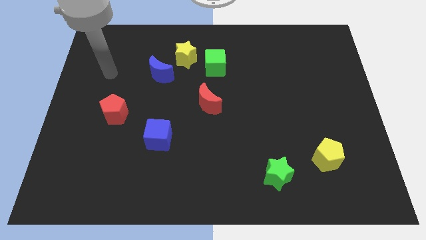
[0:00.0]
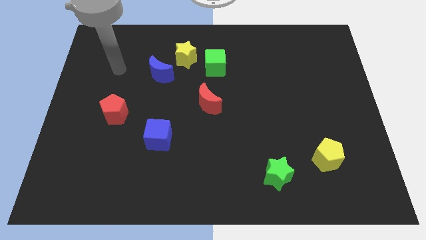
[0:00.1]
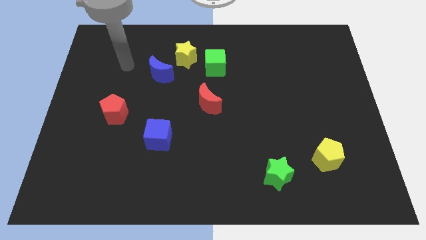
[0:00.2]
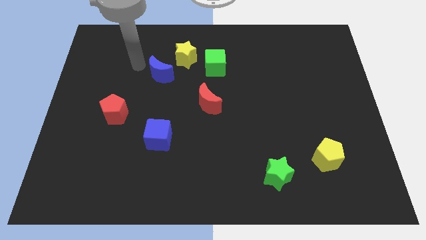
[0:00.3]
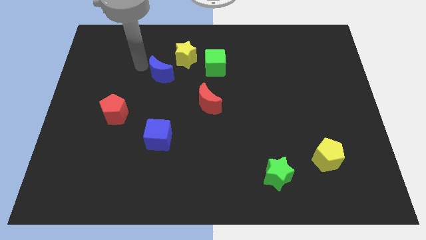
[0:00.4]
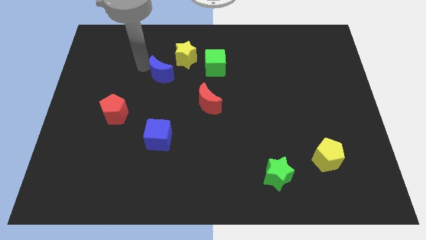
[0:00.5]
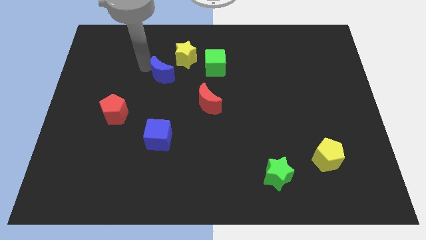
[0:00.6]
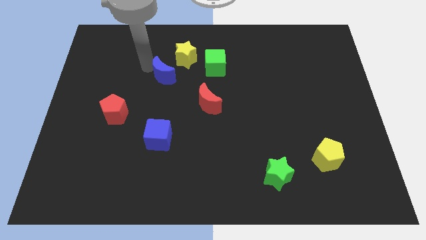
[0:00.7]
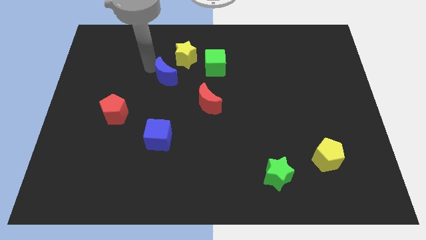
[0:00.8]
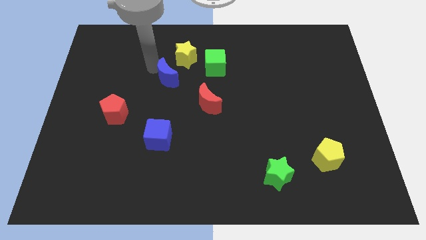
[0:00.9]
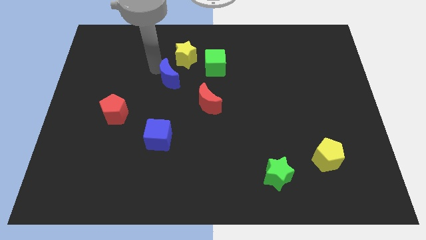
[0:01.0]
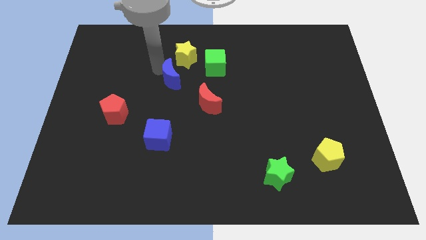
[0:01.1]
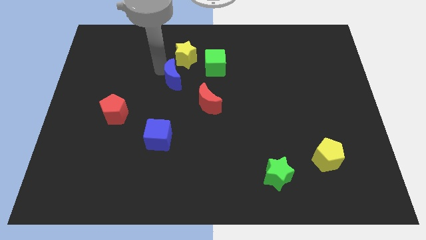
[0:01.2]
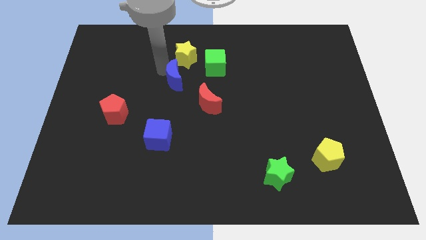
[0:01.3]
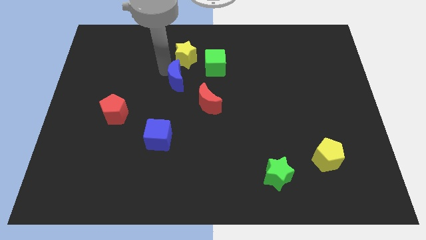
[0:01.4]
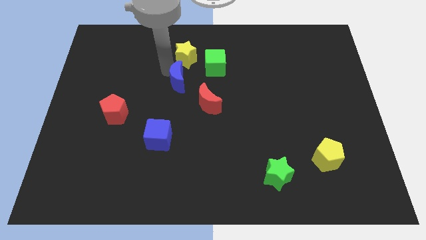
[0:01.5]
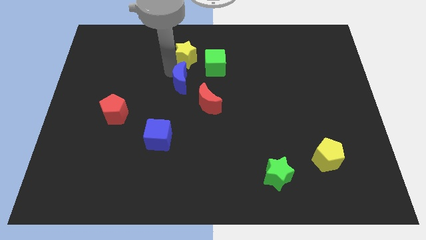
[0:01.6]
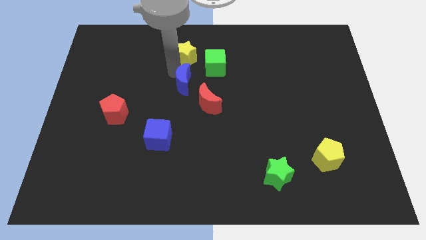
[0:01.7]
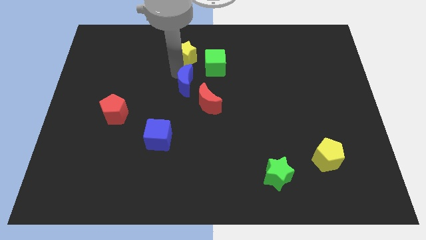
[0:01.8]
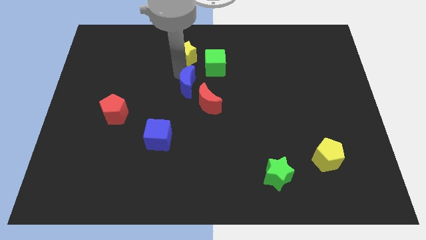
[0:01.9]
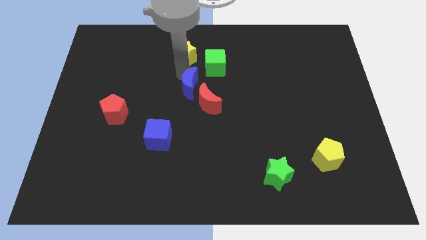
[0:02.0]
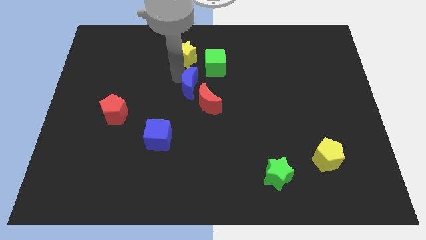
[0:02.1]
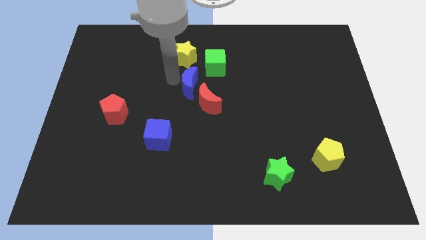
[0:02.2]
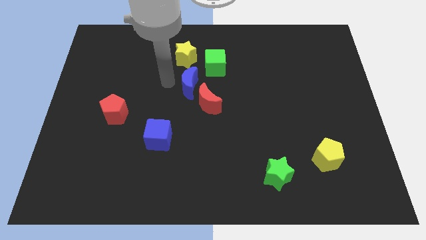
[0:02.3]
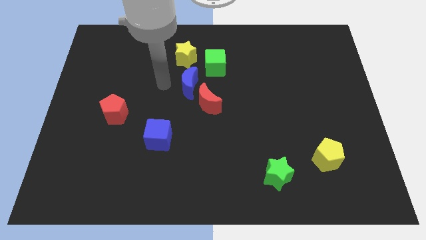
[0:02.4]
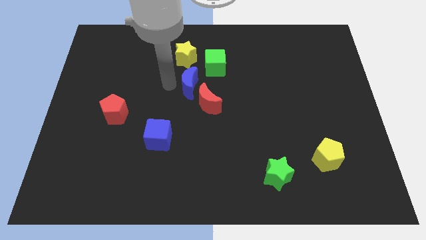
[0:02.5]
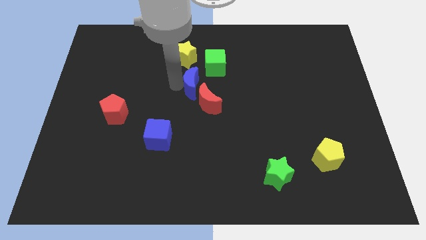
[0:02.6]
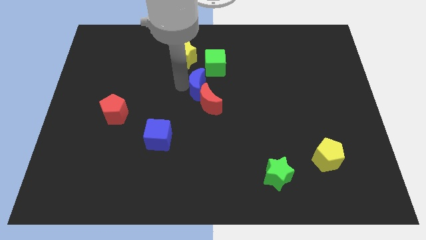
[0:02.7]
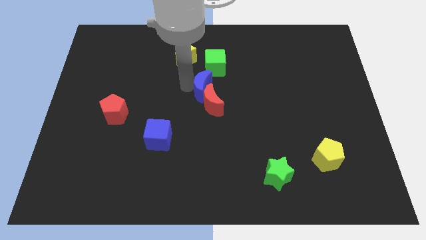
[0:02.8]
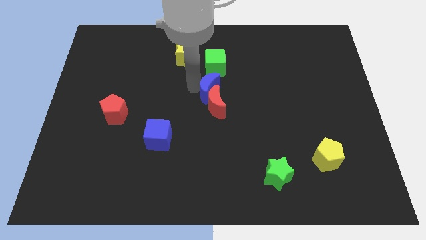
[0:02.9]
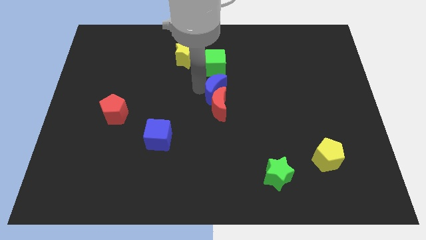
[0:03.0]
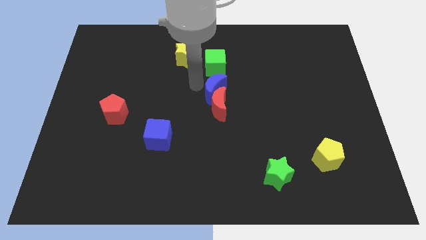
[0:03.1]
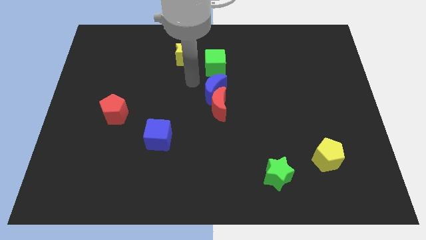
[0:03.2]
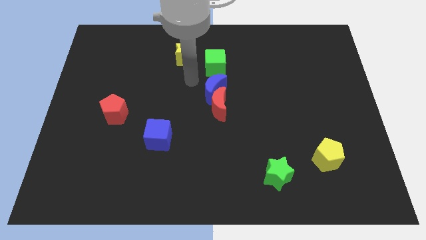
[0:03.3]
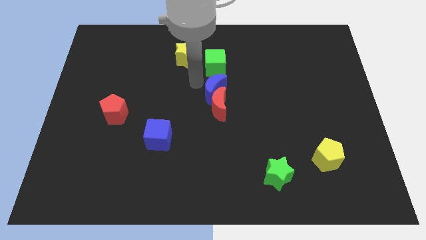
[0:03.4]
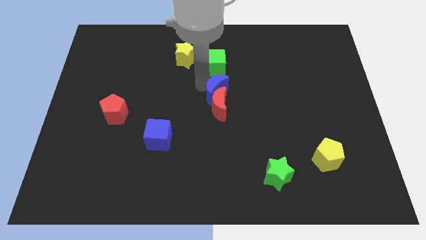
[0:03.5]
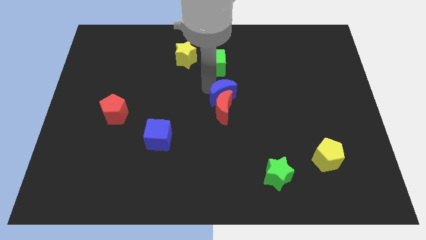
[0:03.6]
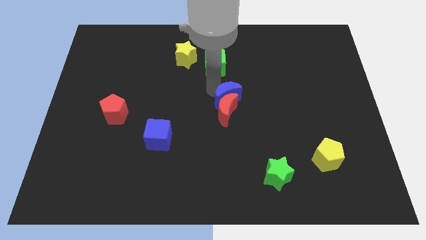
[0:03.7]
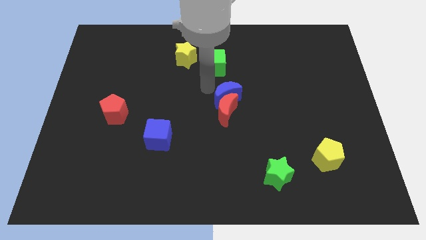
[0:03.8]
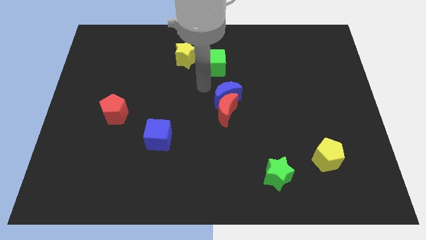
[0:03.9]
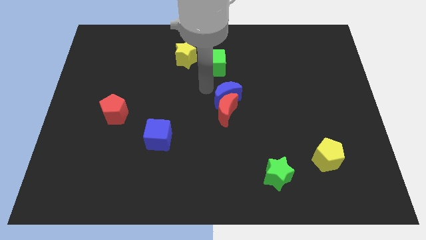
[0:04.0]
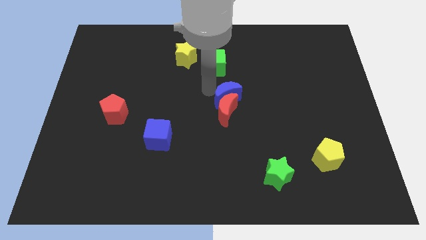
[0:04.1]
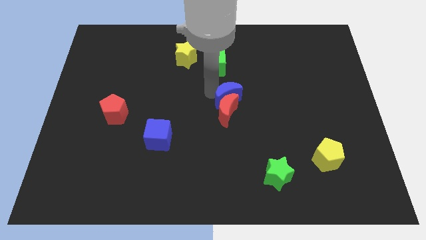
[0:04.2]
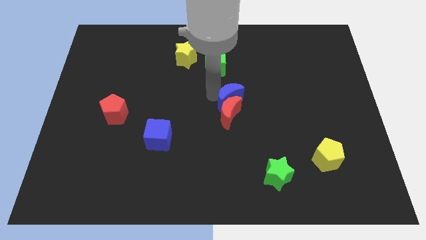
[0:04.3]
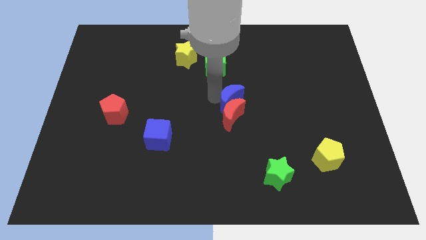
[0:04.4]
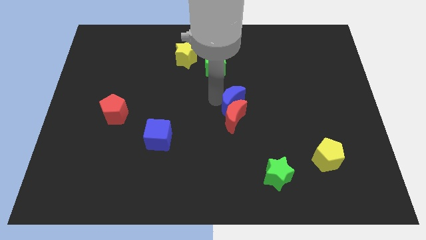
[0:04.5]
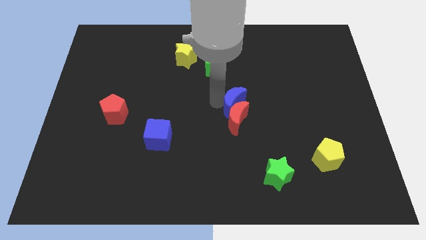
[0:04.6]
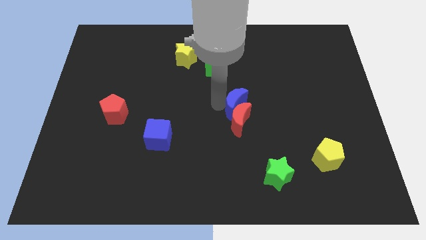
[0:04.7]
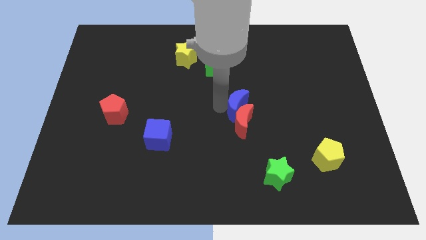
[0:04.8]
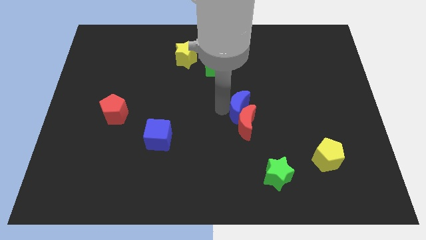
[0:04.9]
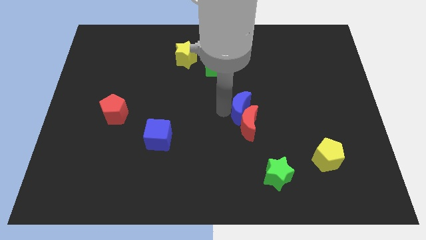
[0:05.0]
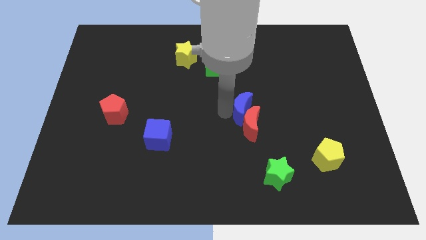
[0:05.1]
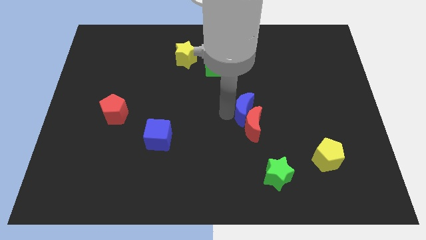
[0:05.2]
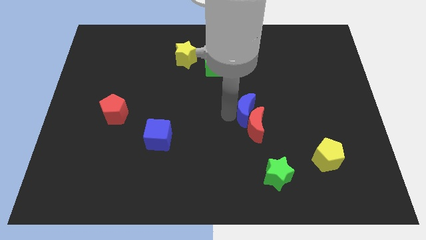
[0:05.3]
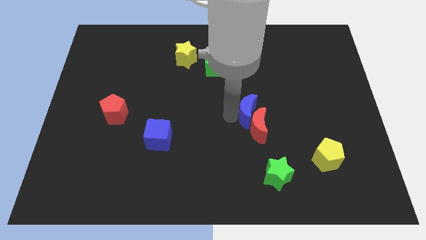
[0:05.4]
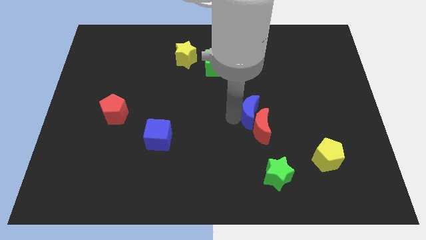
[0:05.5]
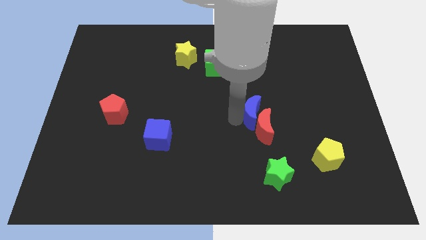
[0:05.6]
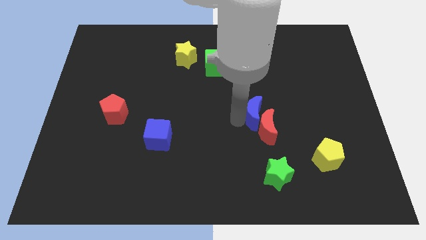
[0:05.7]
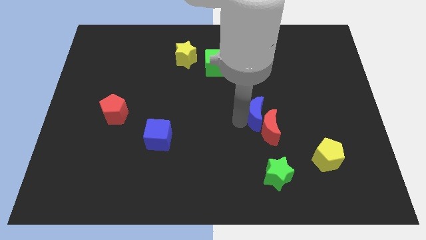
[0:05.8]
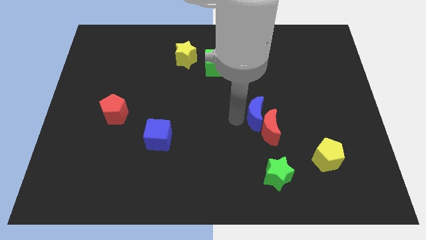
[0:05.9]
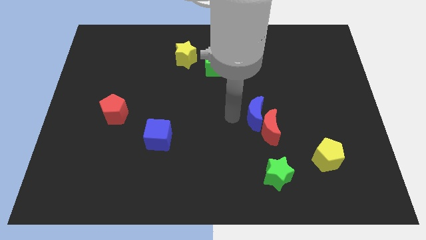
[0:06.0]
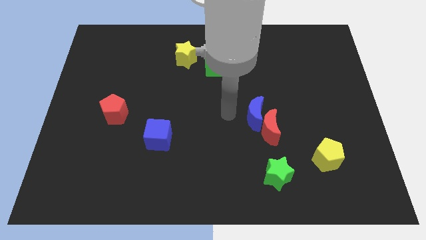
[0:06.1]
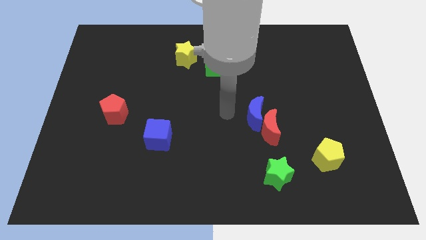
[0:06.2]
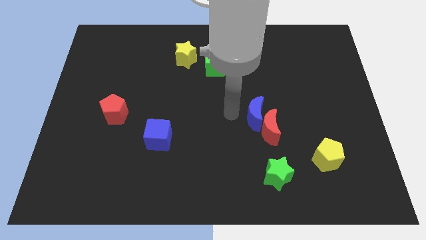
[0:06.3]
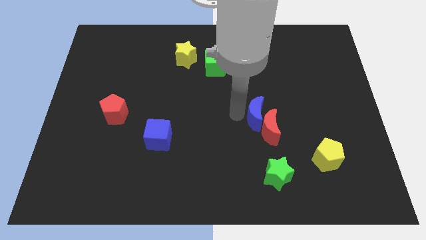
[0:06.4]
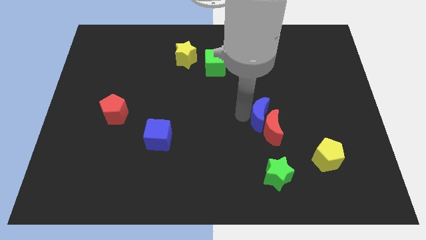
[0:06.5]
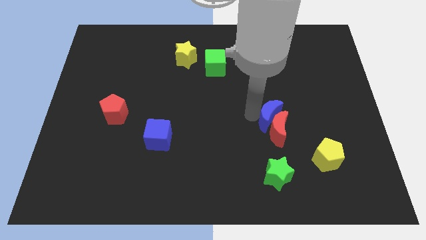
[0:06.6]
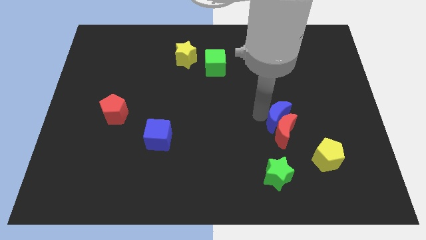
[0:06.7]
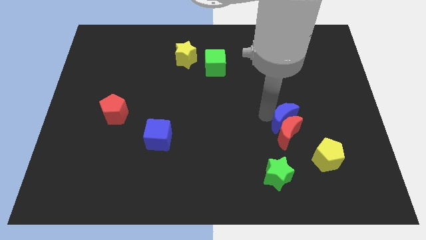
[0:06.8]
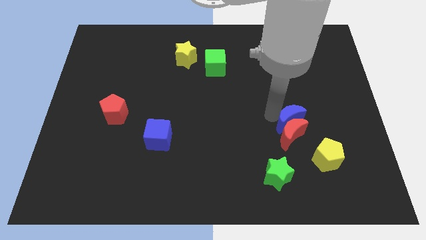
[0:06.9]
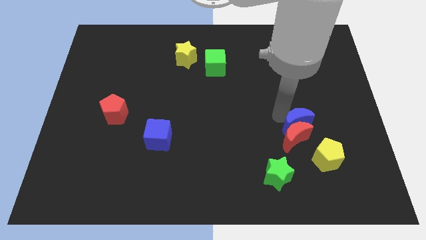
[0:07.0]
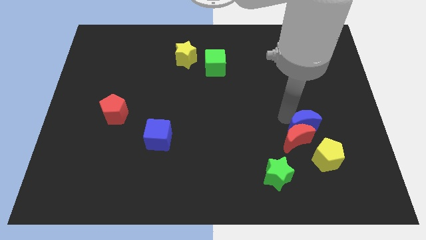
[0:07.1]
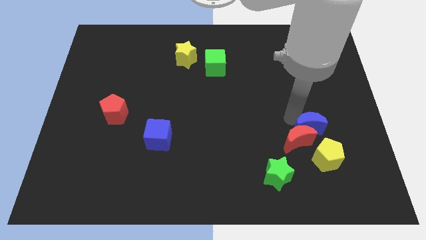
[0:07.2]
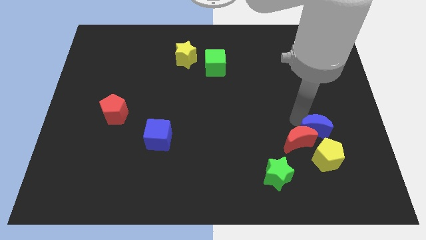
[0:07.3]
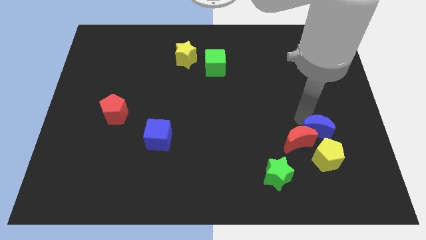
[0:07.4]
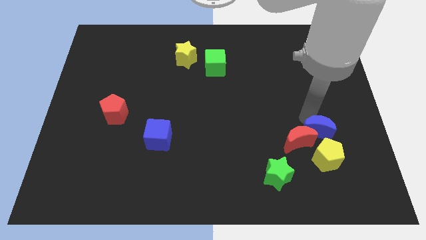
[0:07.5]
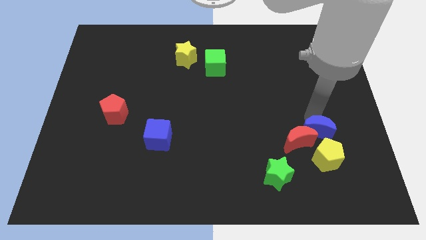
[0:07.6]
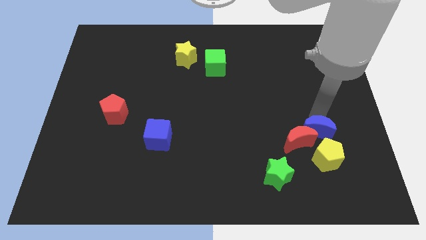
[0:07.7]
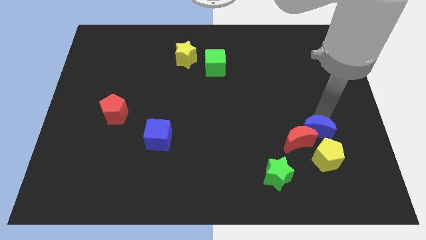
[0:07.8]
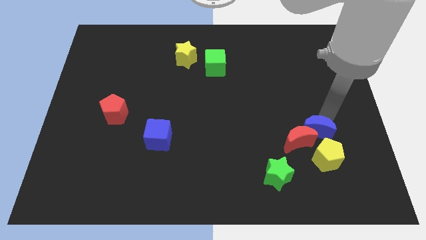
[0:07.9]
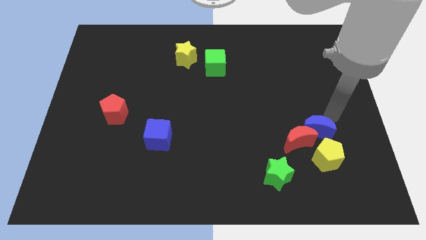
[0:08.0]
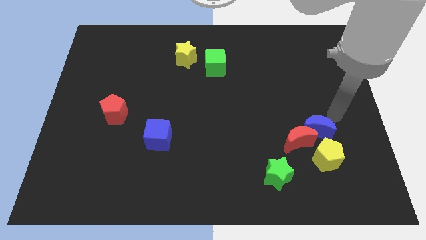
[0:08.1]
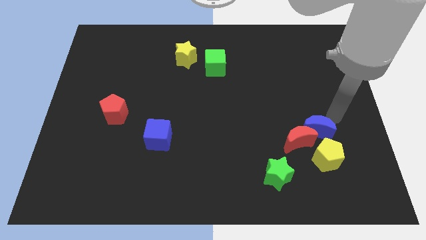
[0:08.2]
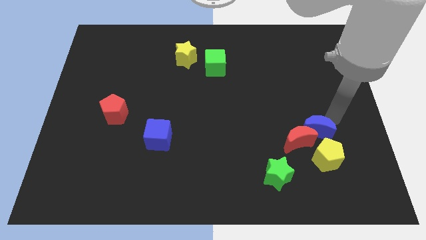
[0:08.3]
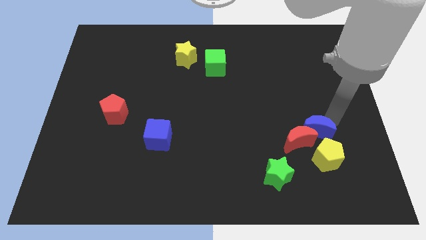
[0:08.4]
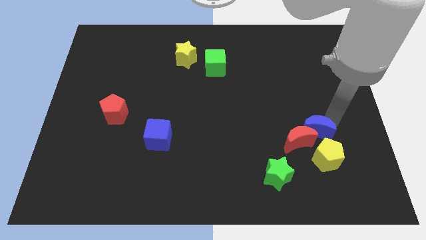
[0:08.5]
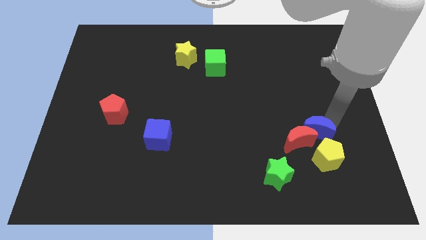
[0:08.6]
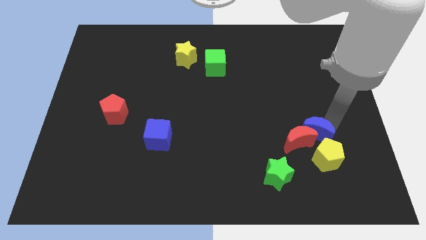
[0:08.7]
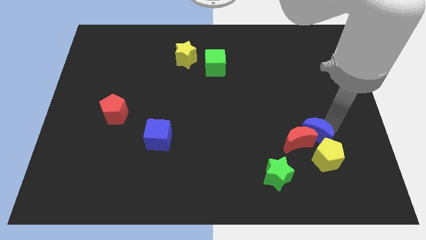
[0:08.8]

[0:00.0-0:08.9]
move the blue moon to the yellow pentagon
